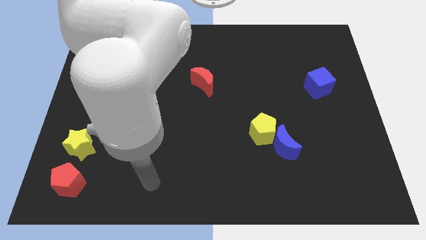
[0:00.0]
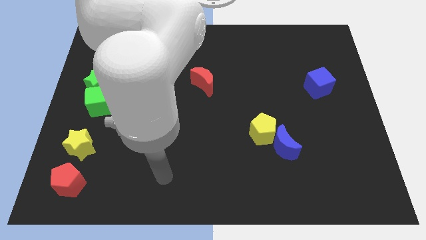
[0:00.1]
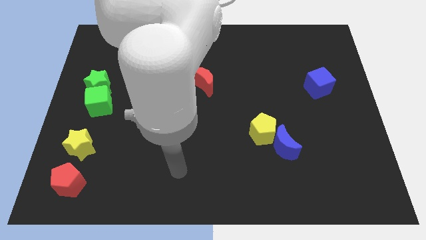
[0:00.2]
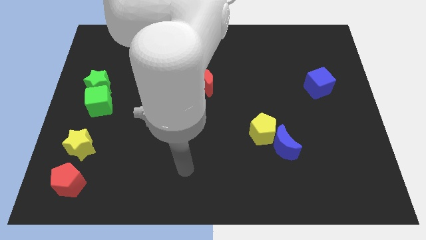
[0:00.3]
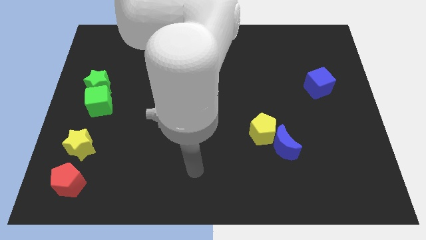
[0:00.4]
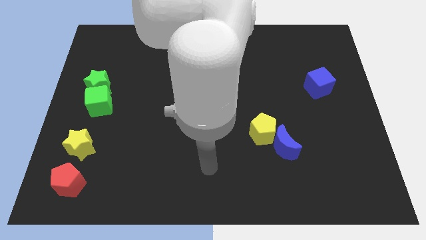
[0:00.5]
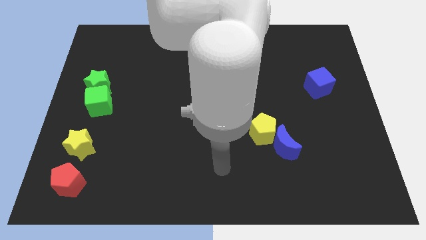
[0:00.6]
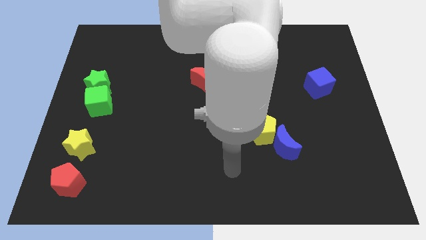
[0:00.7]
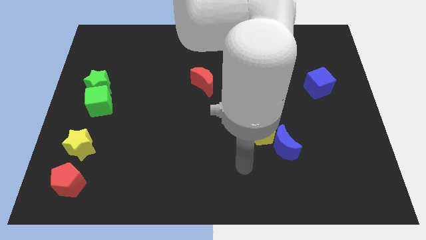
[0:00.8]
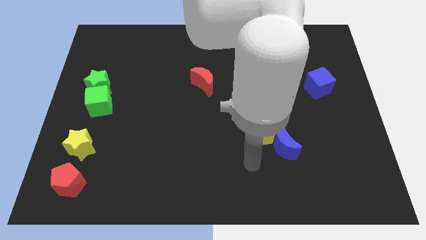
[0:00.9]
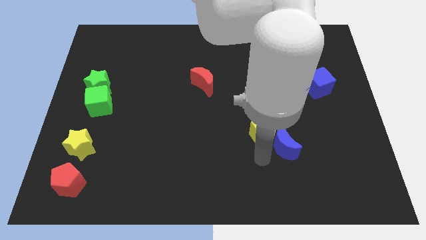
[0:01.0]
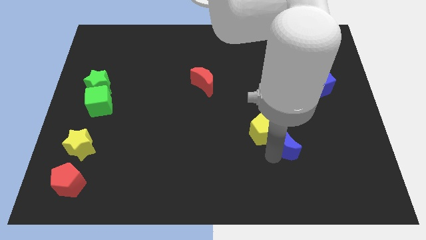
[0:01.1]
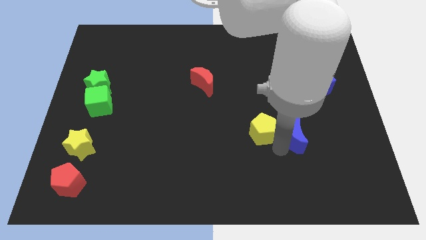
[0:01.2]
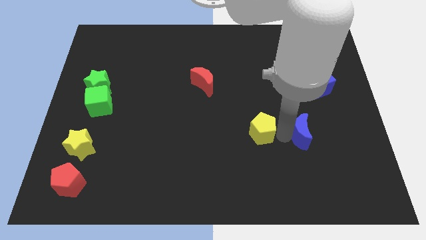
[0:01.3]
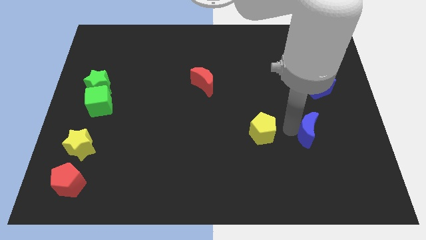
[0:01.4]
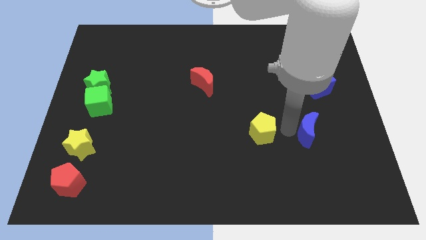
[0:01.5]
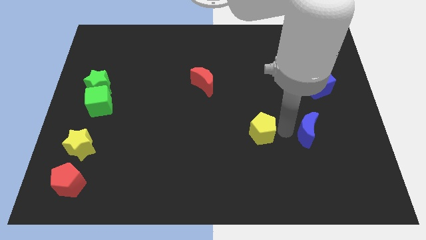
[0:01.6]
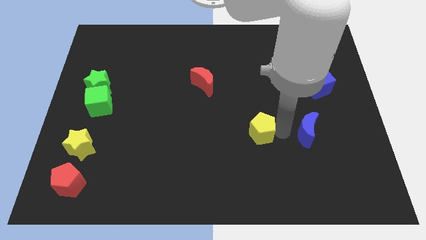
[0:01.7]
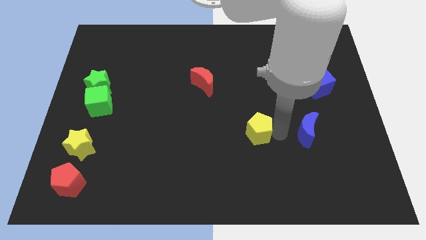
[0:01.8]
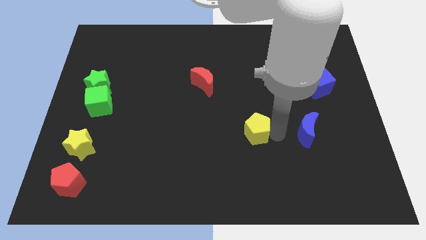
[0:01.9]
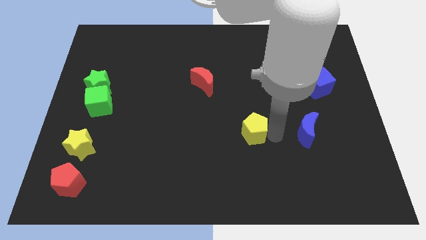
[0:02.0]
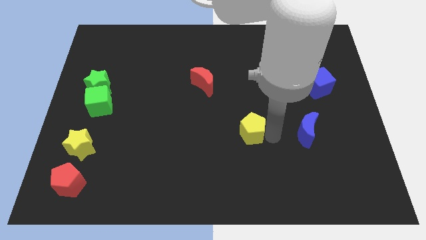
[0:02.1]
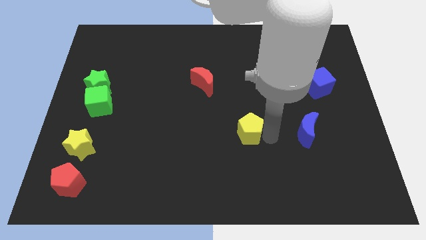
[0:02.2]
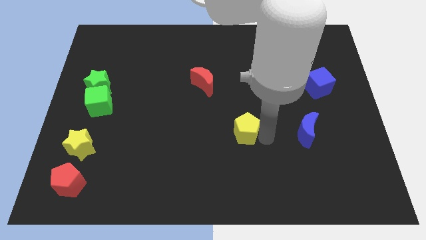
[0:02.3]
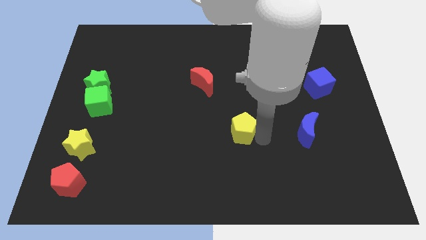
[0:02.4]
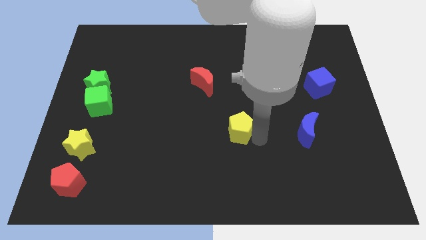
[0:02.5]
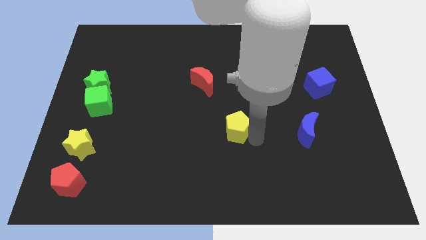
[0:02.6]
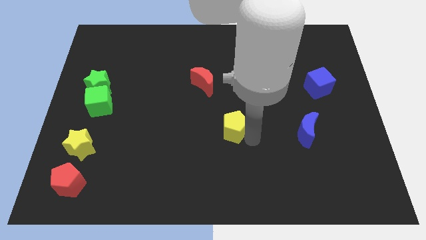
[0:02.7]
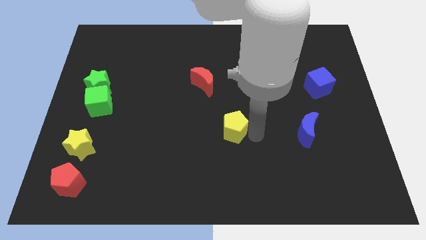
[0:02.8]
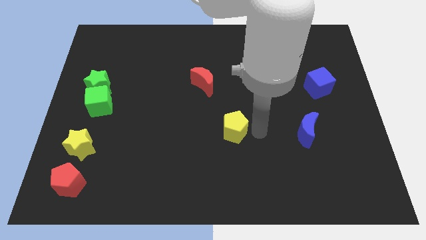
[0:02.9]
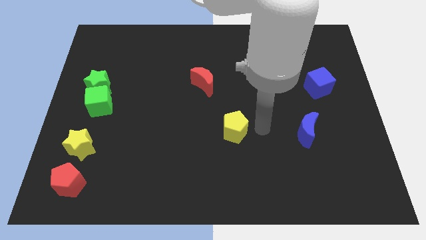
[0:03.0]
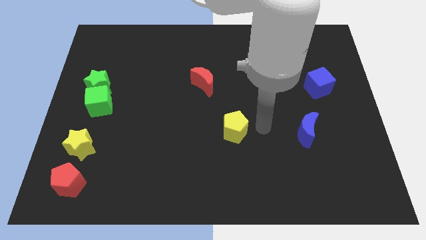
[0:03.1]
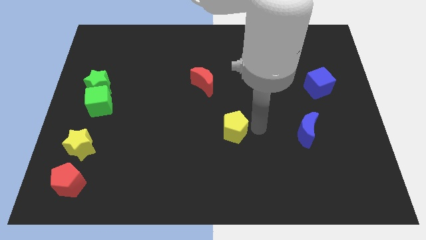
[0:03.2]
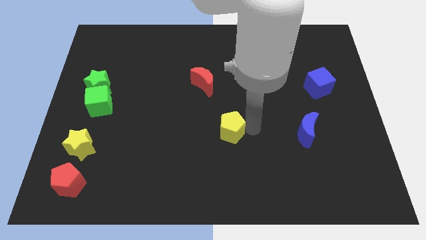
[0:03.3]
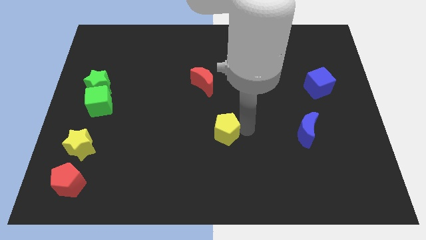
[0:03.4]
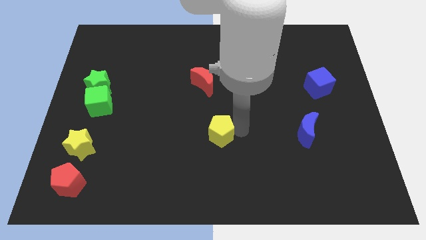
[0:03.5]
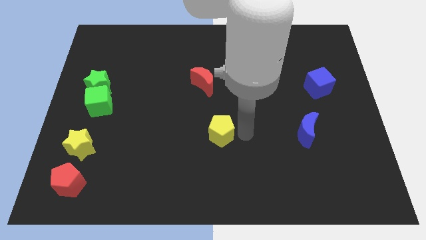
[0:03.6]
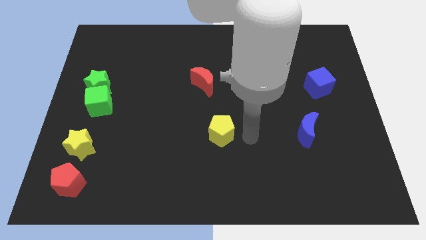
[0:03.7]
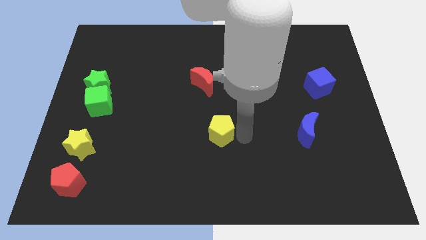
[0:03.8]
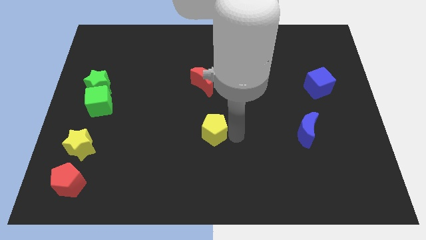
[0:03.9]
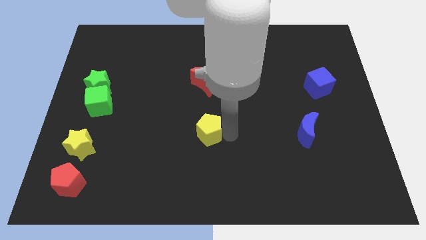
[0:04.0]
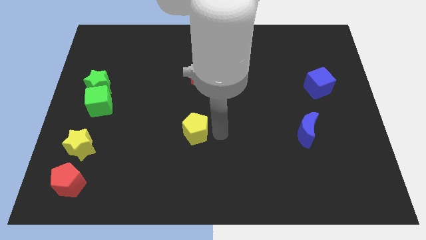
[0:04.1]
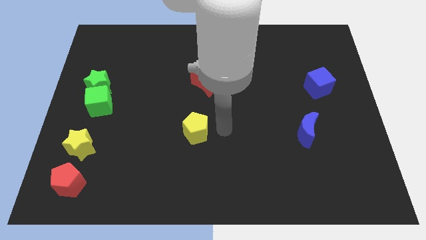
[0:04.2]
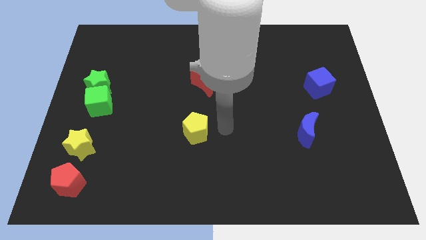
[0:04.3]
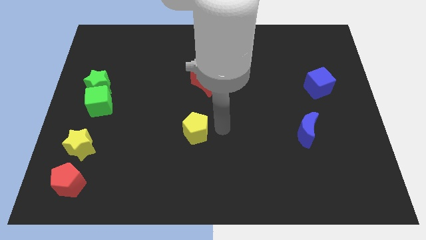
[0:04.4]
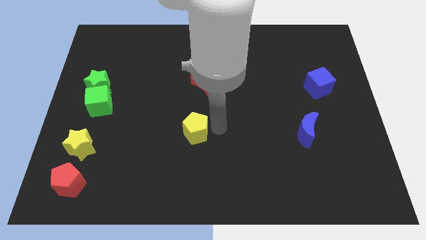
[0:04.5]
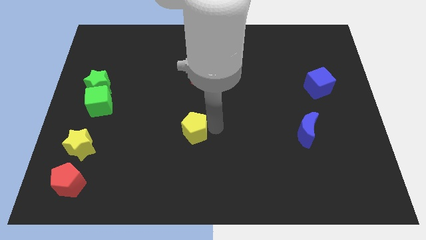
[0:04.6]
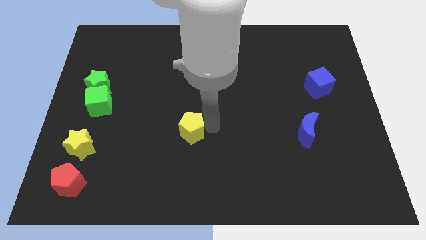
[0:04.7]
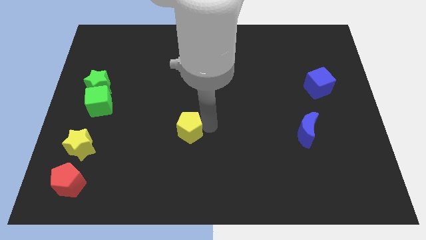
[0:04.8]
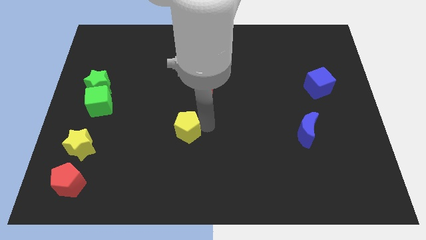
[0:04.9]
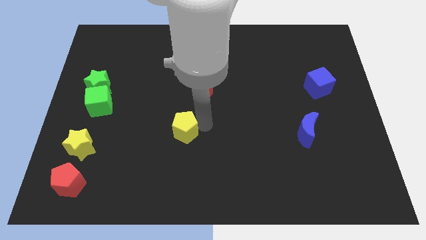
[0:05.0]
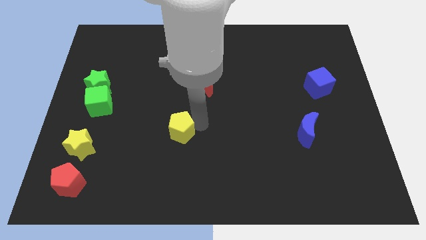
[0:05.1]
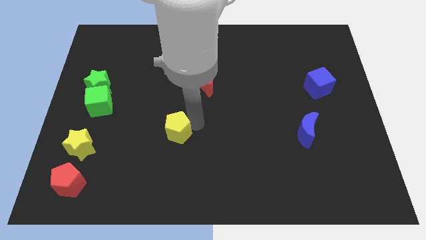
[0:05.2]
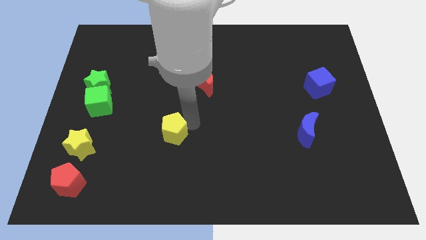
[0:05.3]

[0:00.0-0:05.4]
move the yellow pentagon to the left

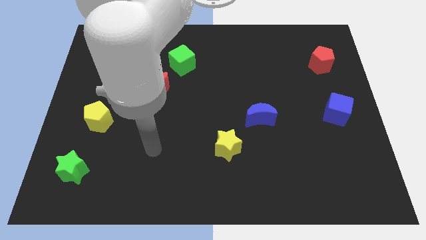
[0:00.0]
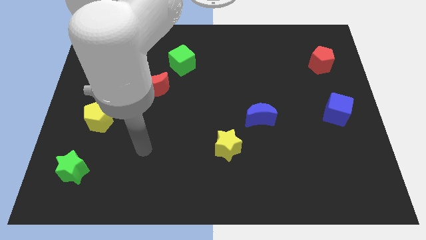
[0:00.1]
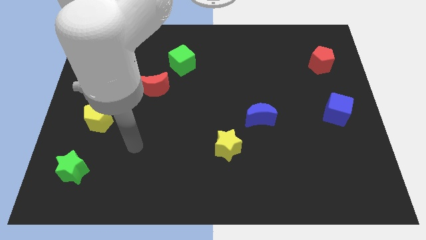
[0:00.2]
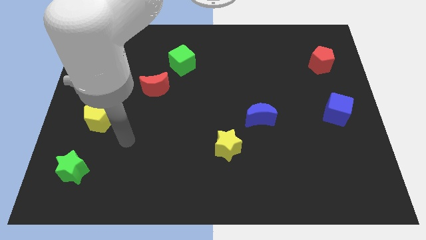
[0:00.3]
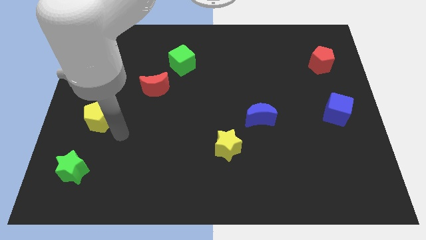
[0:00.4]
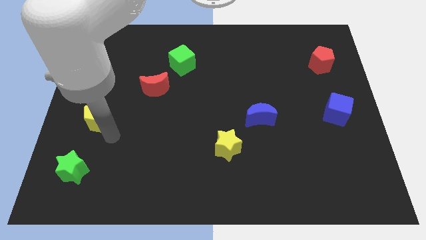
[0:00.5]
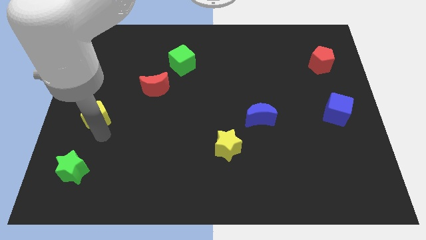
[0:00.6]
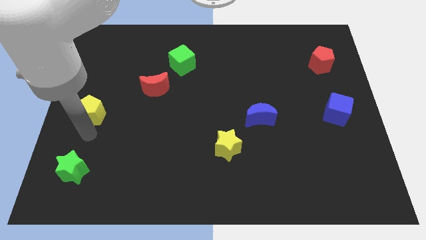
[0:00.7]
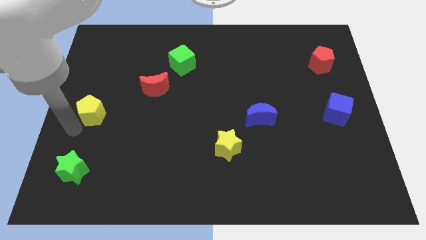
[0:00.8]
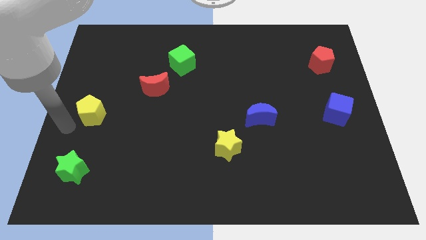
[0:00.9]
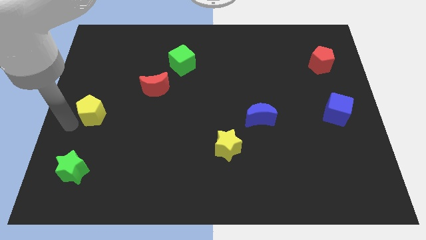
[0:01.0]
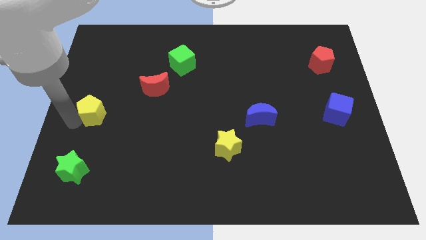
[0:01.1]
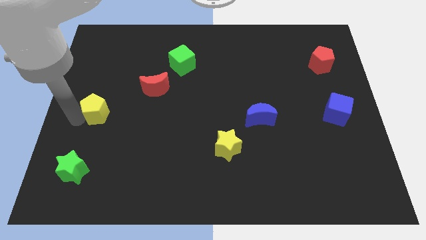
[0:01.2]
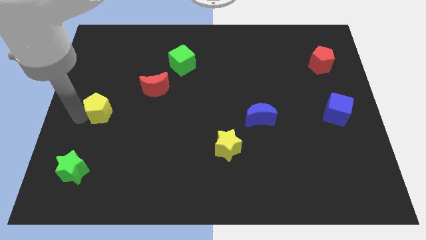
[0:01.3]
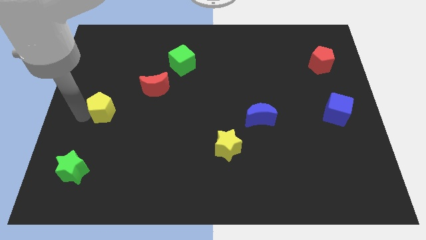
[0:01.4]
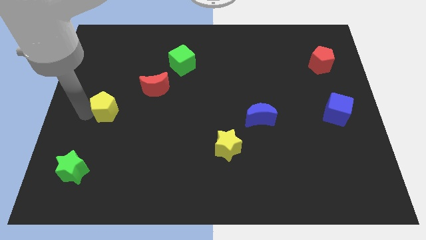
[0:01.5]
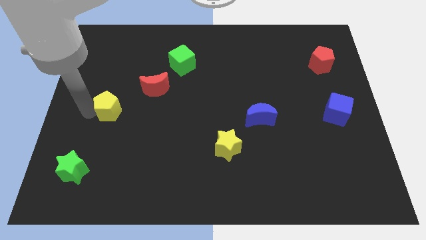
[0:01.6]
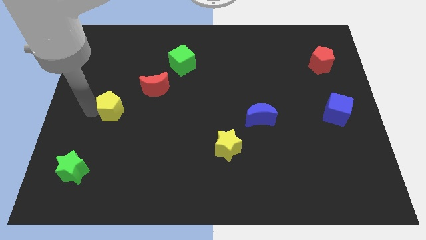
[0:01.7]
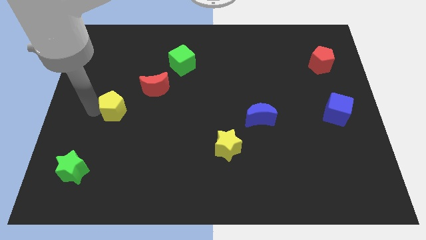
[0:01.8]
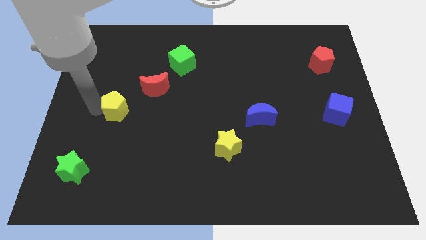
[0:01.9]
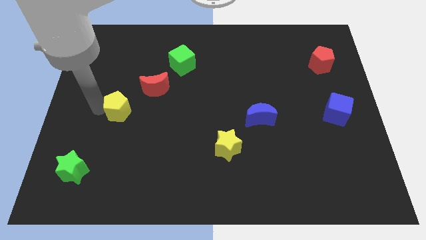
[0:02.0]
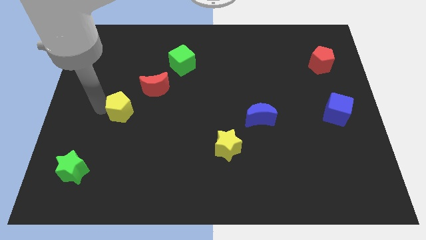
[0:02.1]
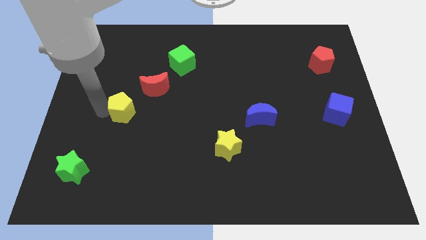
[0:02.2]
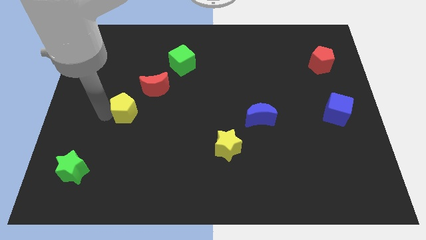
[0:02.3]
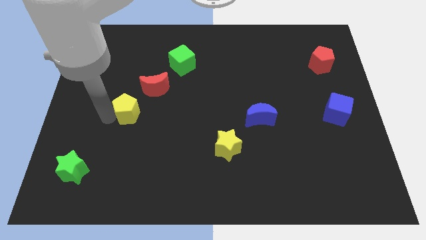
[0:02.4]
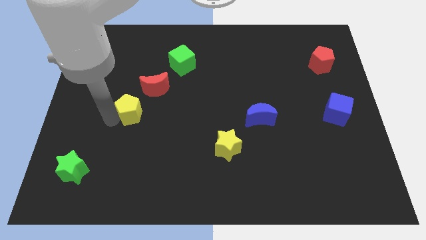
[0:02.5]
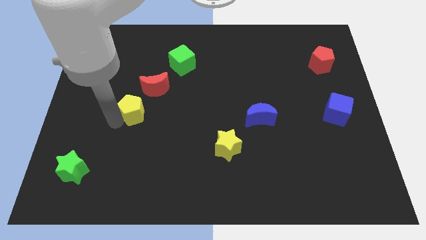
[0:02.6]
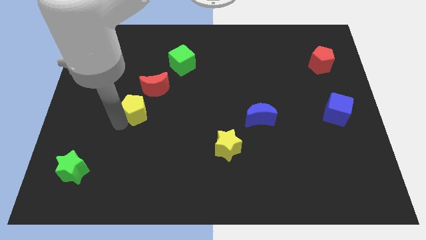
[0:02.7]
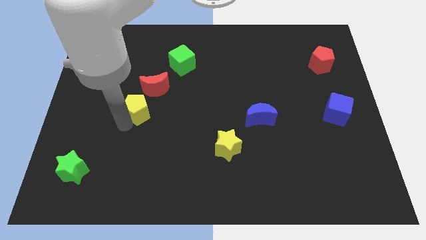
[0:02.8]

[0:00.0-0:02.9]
slide the yellow pentagon upwards and to the right diagonally somewhat

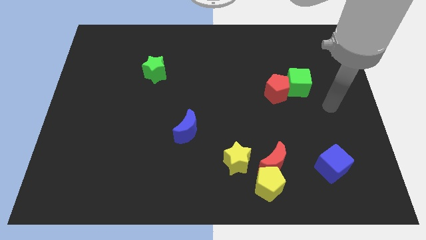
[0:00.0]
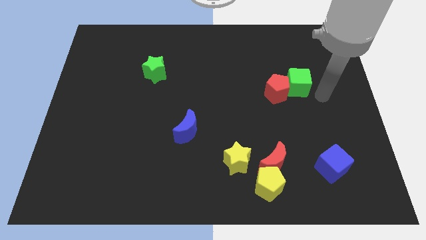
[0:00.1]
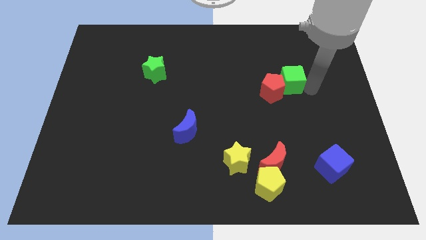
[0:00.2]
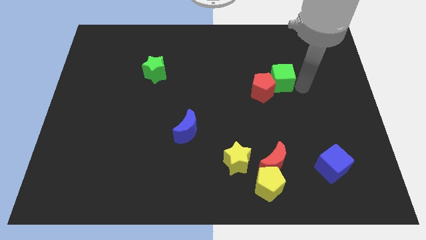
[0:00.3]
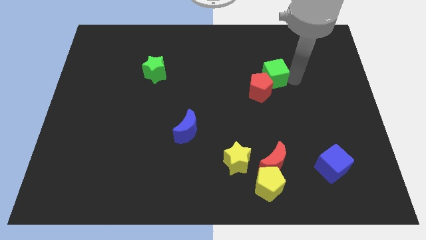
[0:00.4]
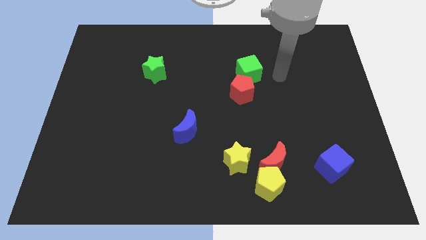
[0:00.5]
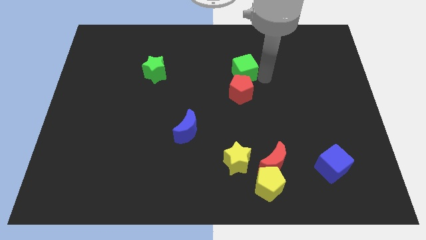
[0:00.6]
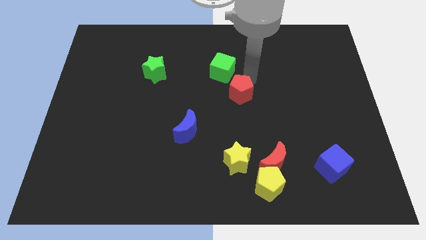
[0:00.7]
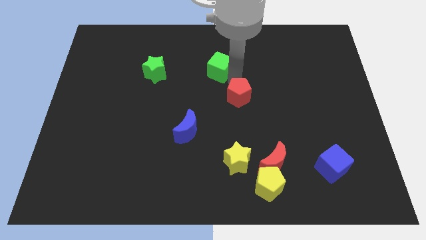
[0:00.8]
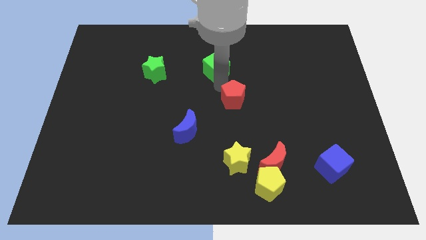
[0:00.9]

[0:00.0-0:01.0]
push the red pentagon downwards and left slightly
